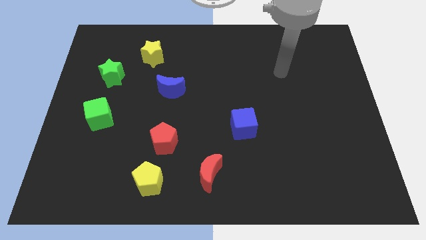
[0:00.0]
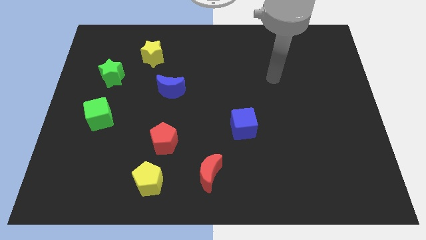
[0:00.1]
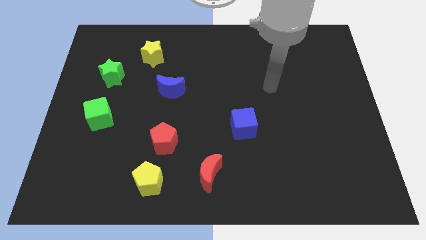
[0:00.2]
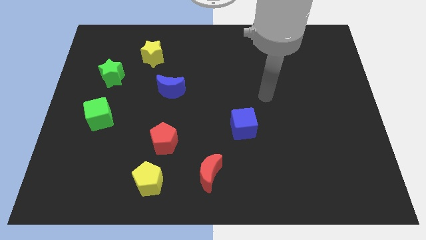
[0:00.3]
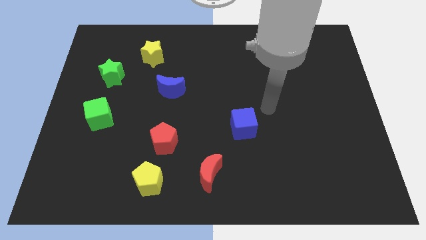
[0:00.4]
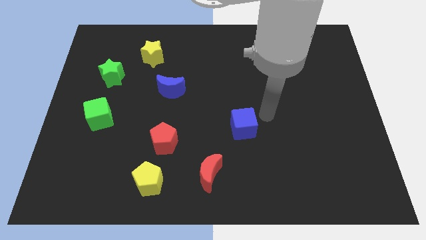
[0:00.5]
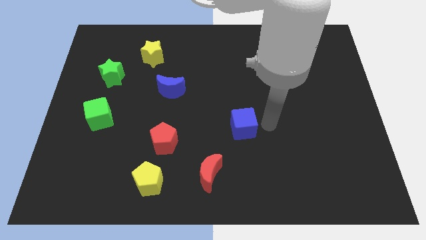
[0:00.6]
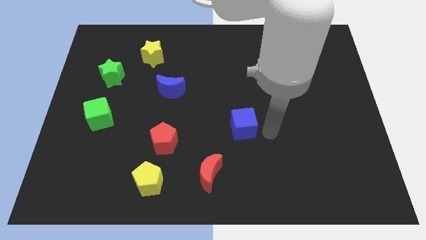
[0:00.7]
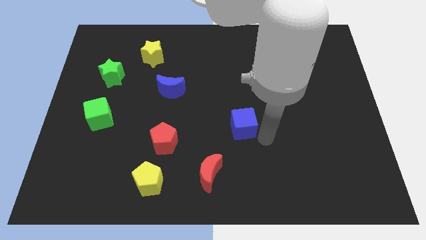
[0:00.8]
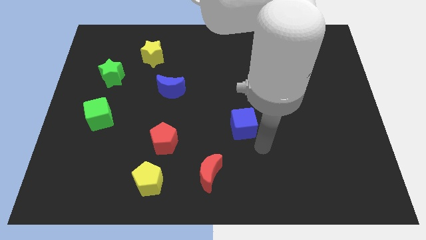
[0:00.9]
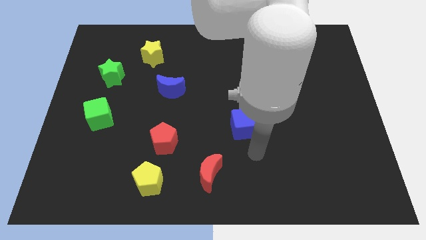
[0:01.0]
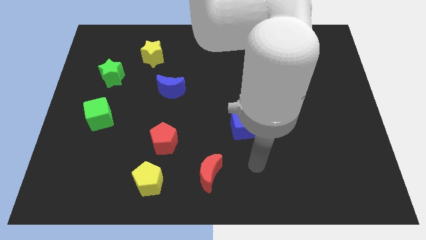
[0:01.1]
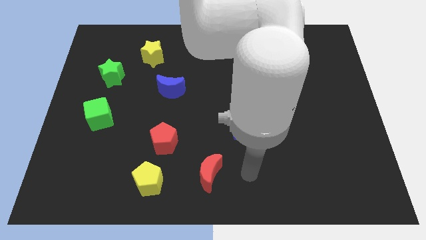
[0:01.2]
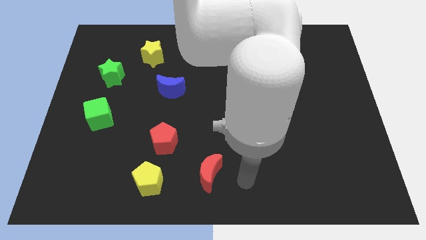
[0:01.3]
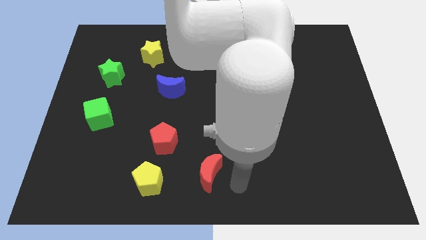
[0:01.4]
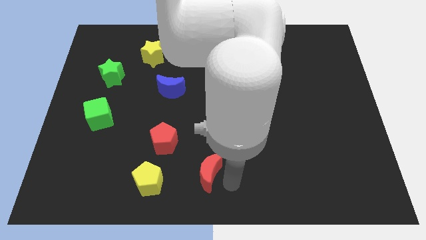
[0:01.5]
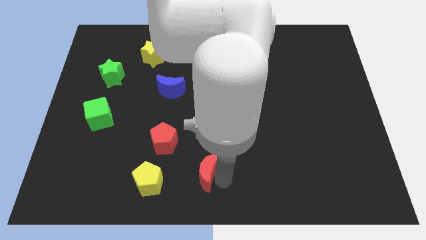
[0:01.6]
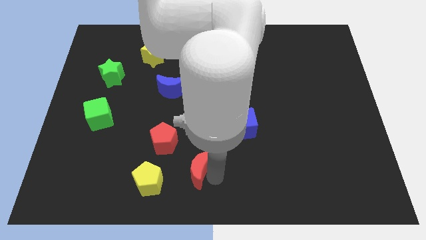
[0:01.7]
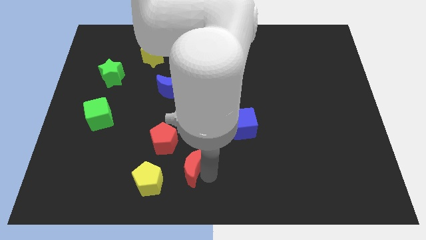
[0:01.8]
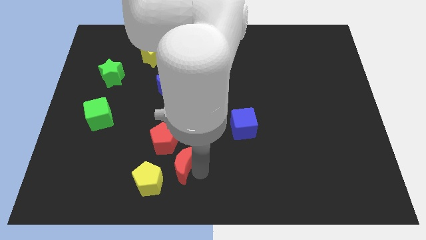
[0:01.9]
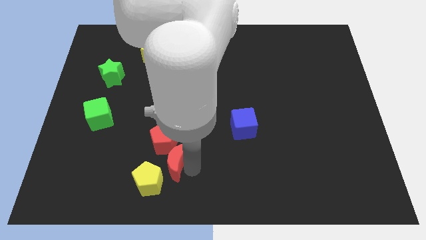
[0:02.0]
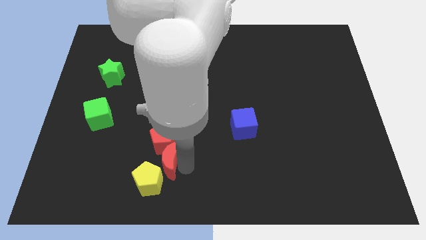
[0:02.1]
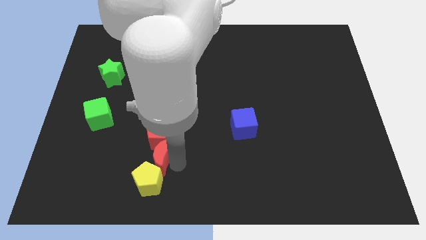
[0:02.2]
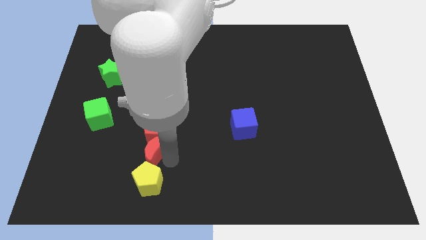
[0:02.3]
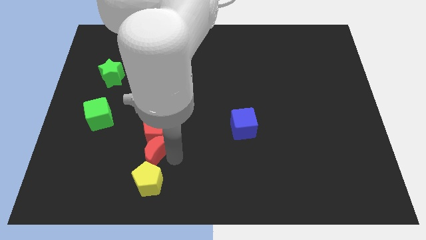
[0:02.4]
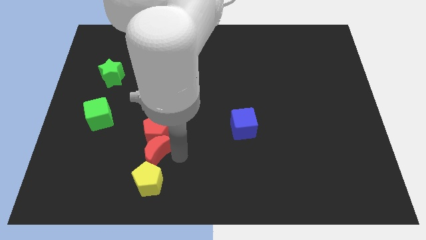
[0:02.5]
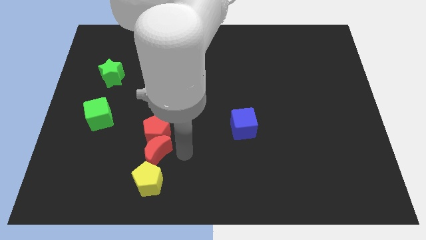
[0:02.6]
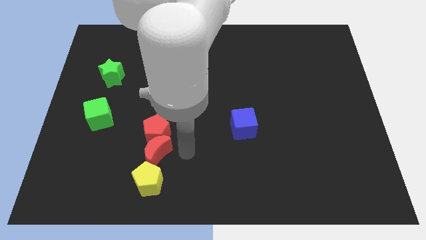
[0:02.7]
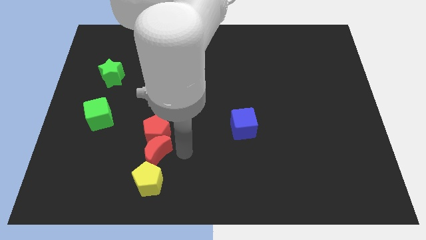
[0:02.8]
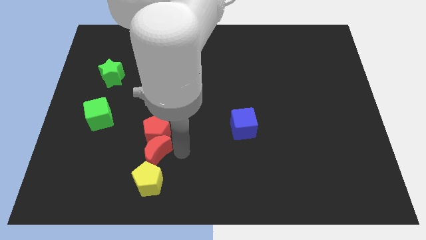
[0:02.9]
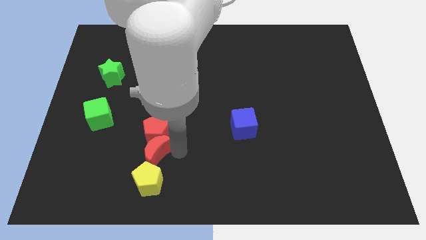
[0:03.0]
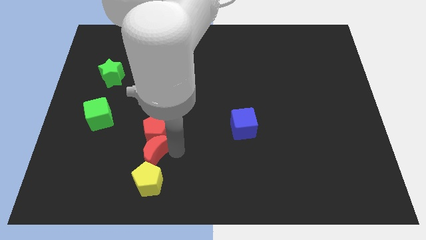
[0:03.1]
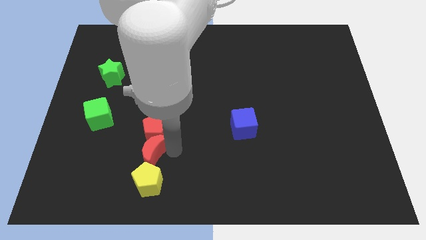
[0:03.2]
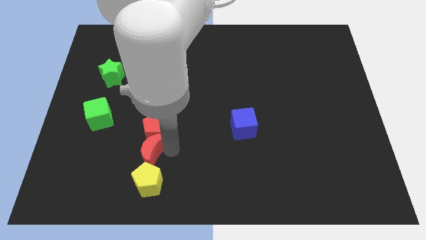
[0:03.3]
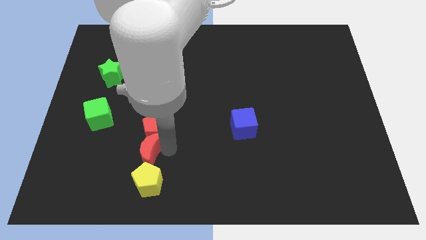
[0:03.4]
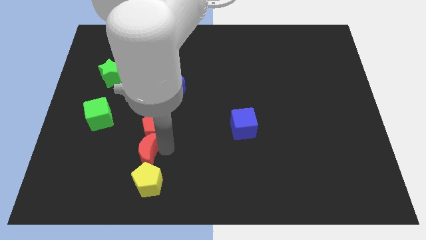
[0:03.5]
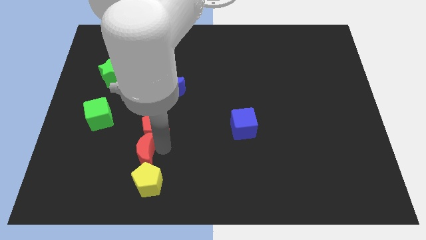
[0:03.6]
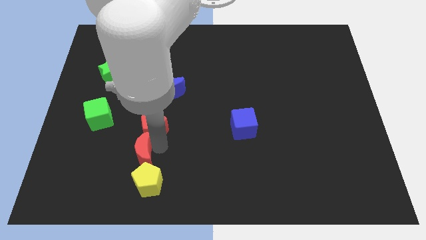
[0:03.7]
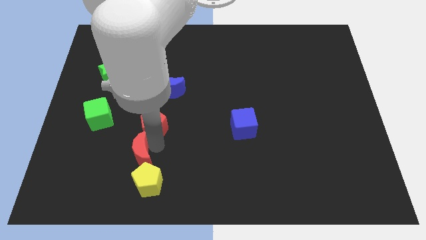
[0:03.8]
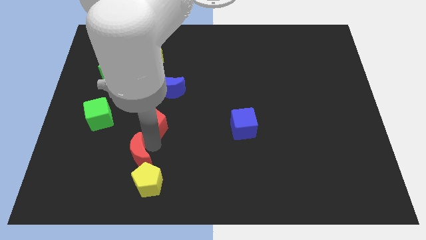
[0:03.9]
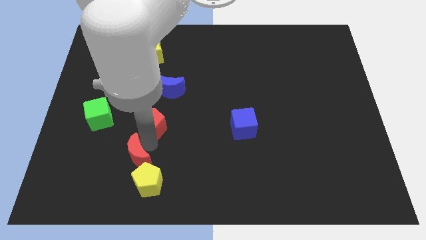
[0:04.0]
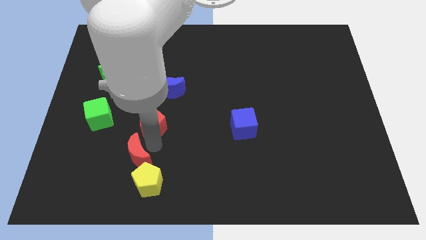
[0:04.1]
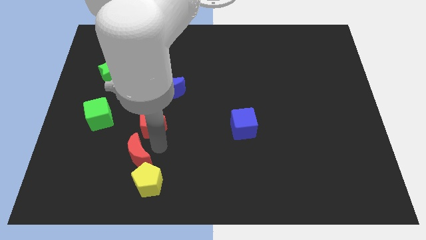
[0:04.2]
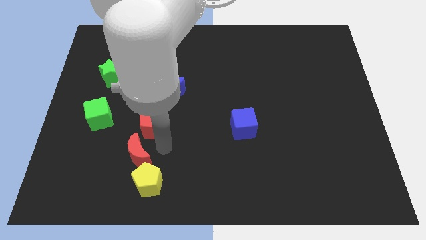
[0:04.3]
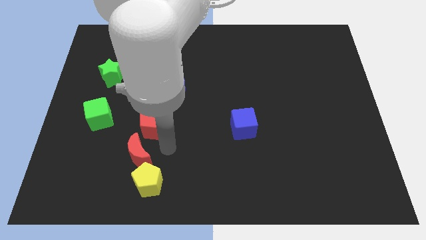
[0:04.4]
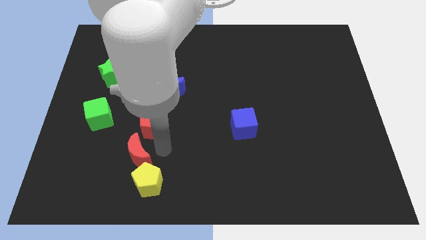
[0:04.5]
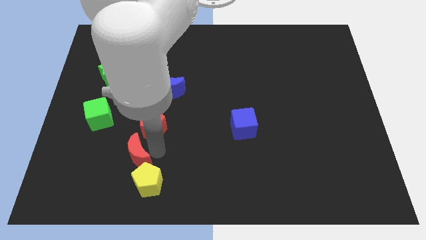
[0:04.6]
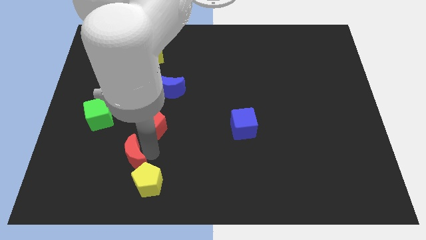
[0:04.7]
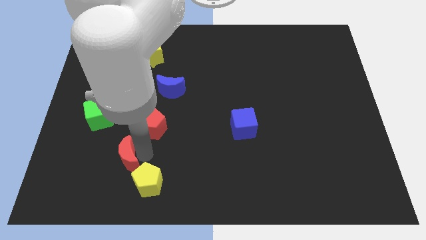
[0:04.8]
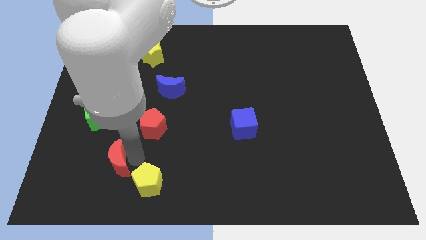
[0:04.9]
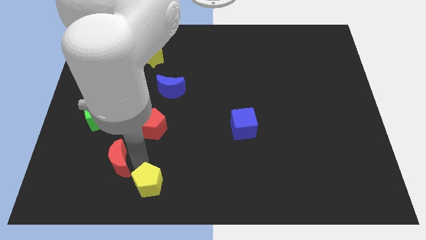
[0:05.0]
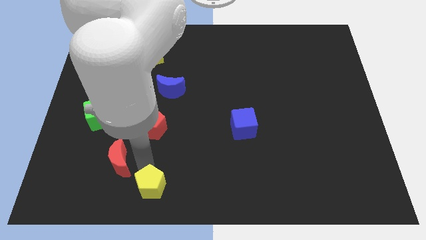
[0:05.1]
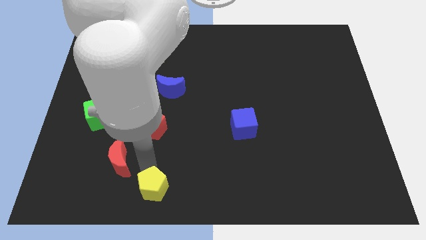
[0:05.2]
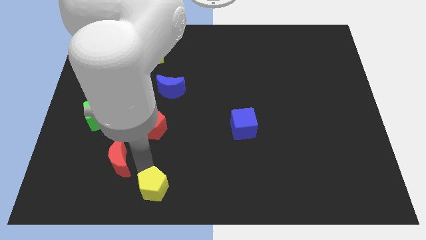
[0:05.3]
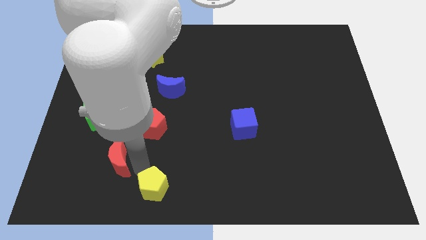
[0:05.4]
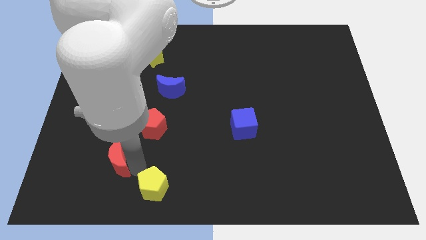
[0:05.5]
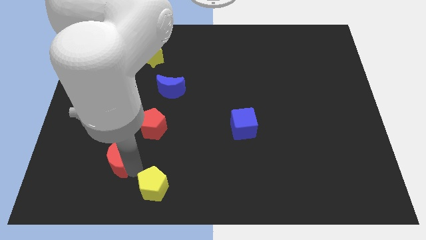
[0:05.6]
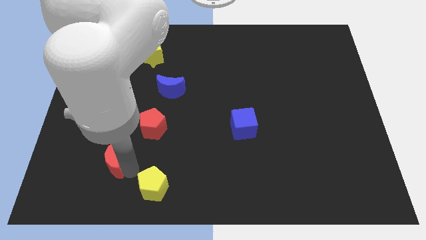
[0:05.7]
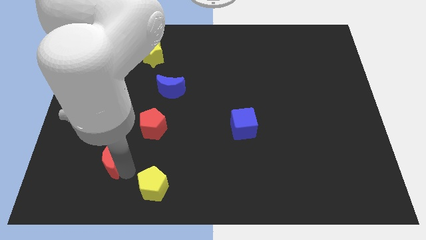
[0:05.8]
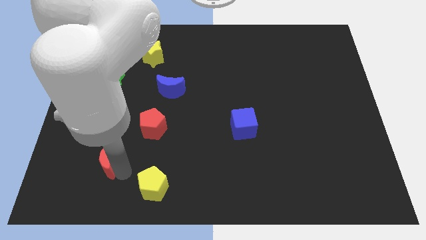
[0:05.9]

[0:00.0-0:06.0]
push the red moon to the bottom of the green cube

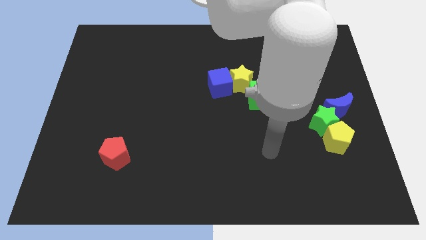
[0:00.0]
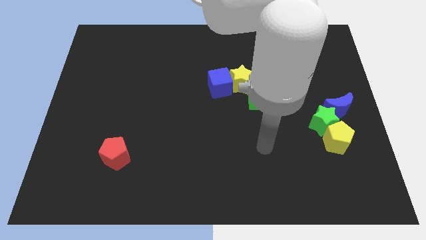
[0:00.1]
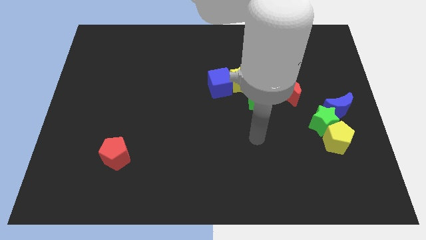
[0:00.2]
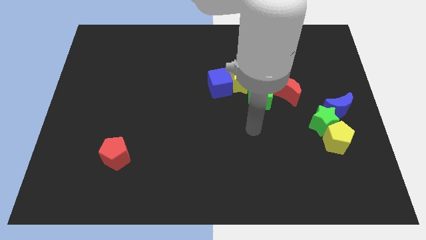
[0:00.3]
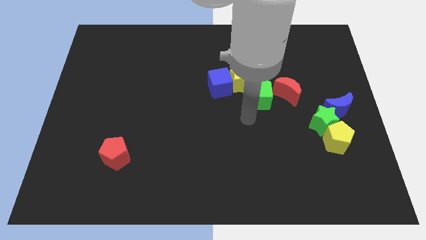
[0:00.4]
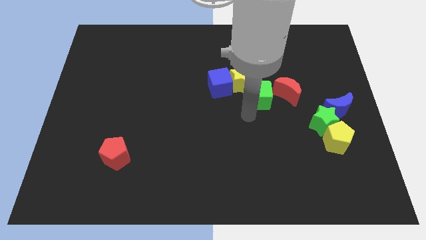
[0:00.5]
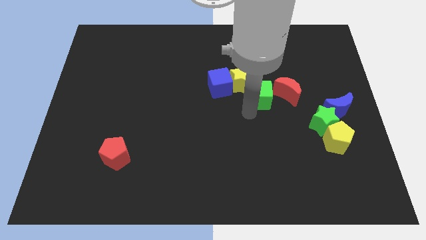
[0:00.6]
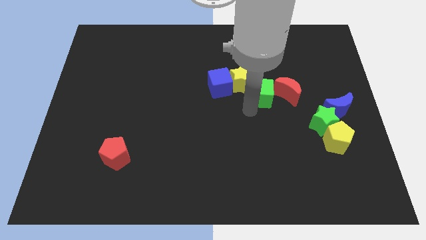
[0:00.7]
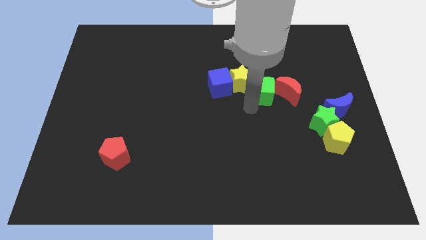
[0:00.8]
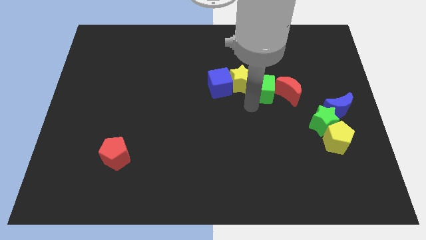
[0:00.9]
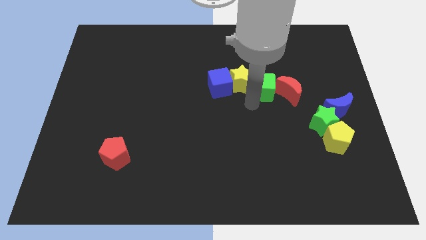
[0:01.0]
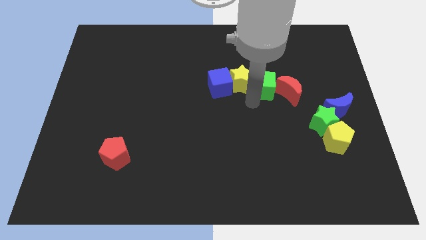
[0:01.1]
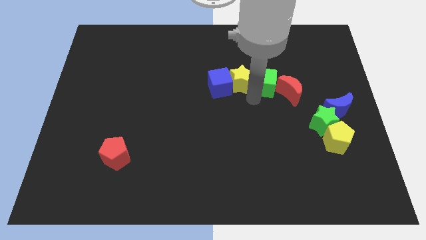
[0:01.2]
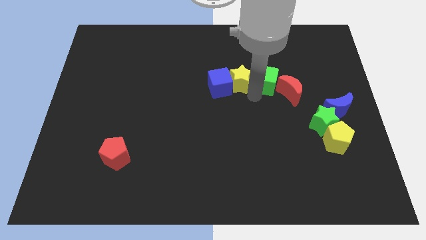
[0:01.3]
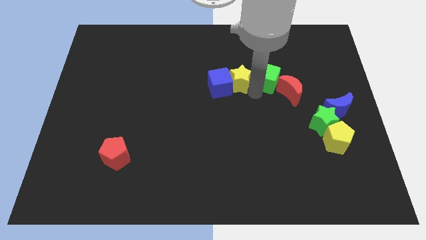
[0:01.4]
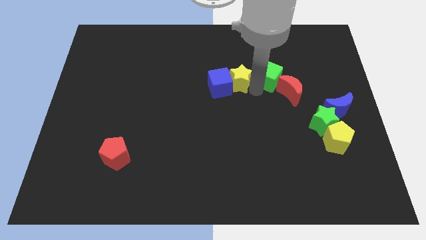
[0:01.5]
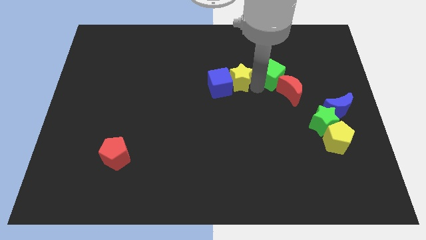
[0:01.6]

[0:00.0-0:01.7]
put the green cube to the top side of the red moon

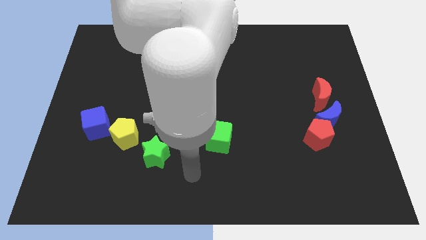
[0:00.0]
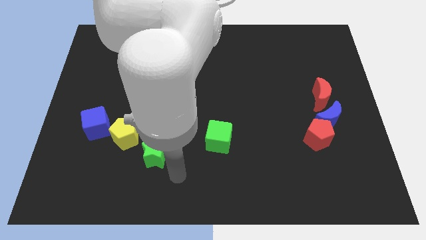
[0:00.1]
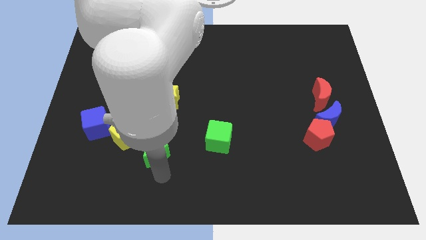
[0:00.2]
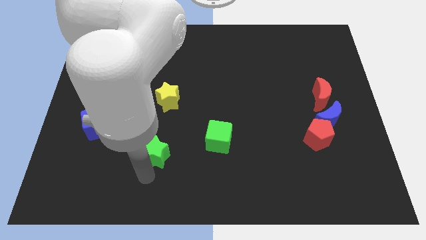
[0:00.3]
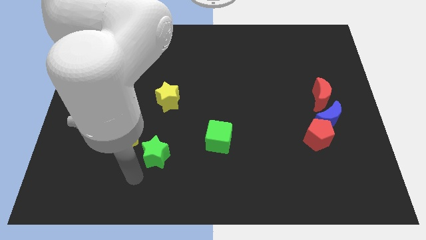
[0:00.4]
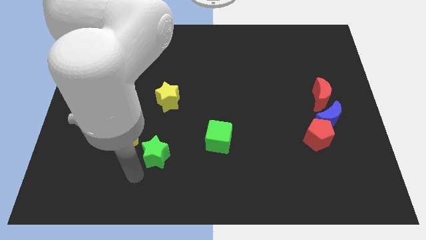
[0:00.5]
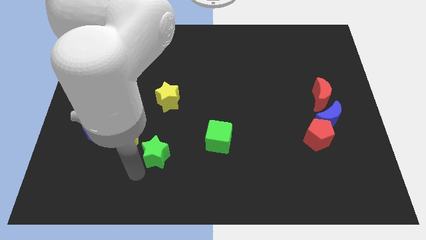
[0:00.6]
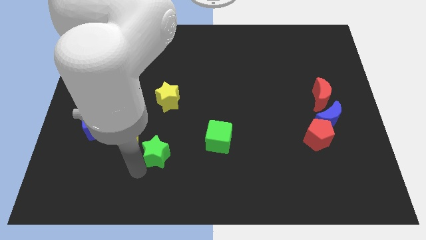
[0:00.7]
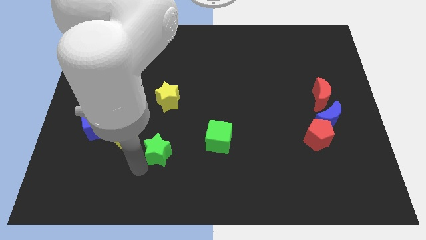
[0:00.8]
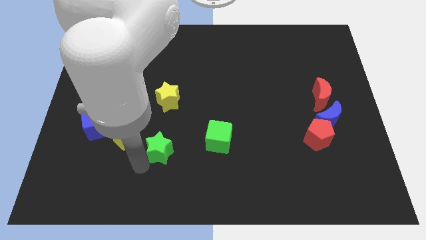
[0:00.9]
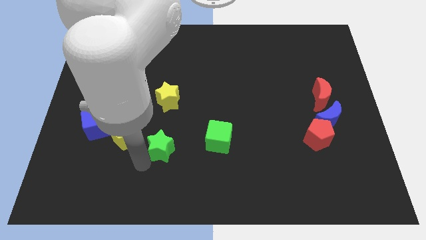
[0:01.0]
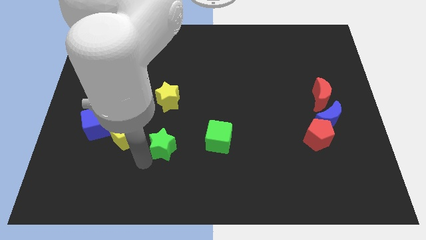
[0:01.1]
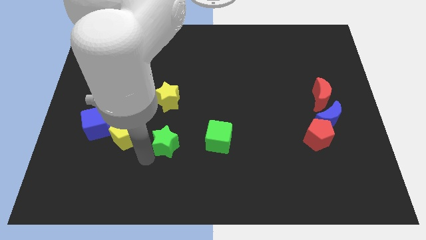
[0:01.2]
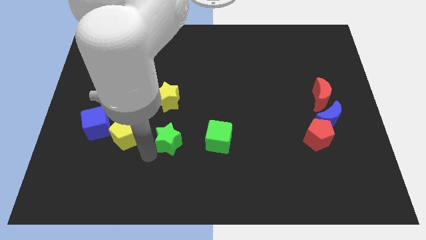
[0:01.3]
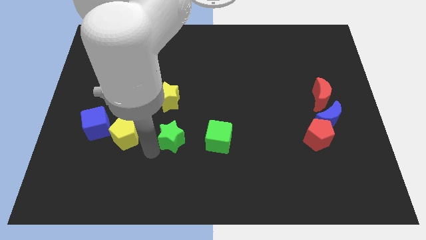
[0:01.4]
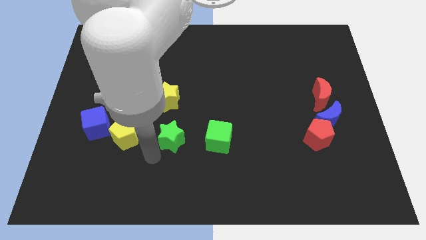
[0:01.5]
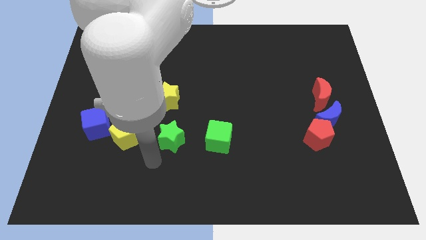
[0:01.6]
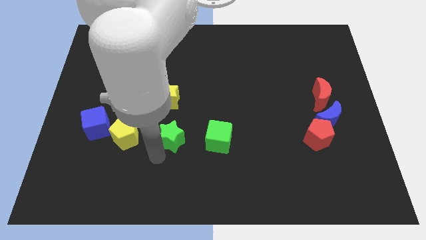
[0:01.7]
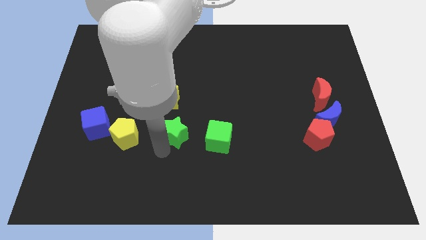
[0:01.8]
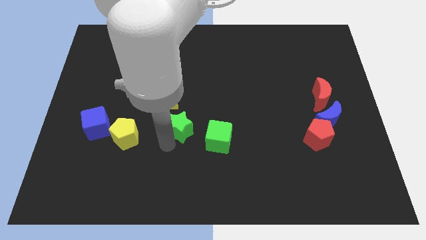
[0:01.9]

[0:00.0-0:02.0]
push the green star to the bottom right of the yellow star
